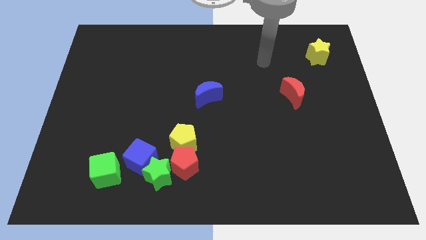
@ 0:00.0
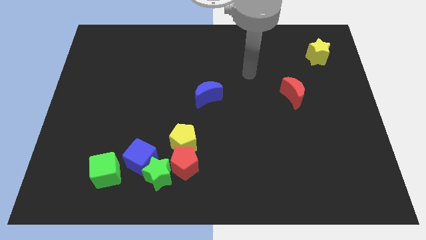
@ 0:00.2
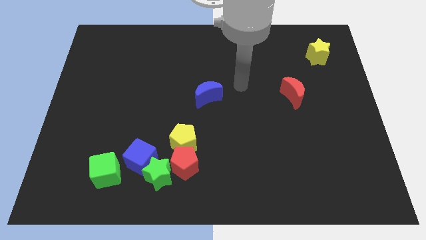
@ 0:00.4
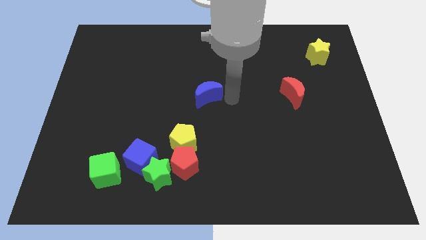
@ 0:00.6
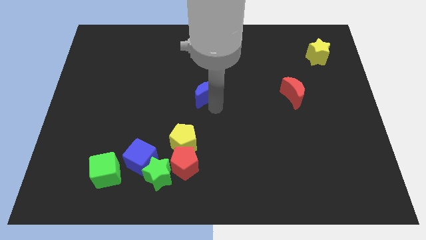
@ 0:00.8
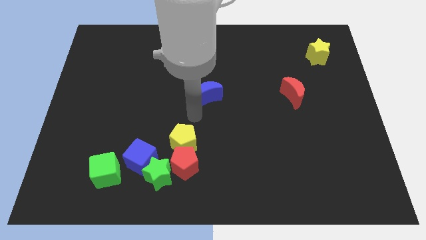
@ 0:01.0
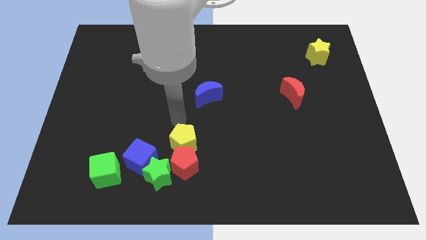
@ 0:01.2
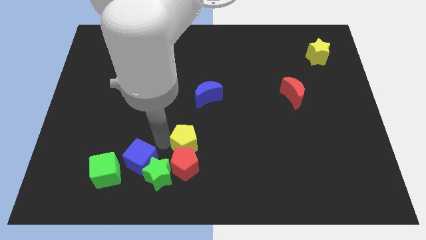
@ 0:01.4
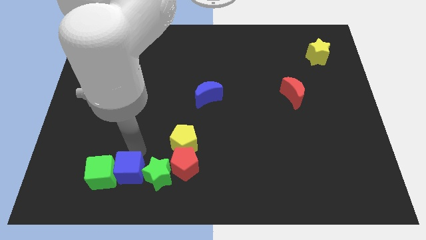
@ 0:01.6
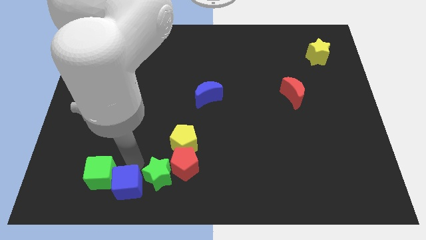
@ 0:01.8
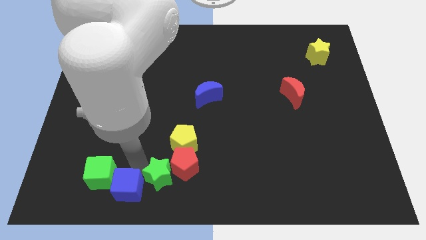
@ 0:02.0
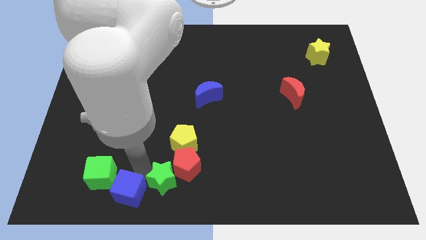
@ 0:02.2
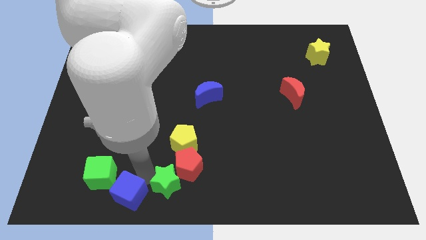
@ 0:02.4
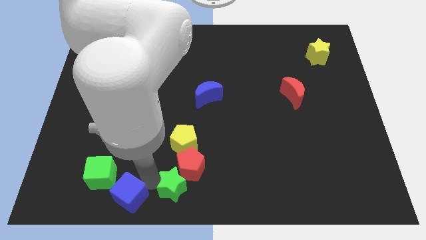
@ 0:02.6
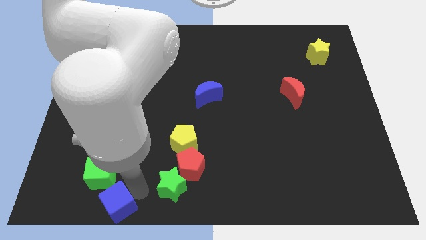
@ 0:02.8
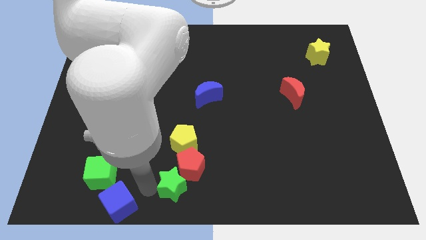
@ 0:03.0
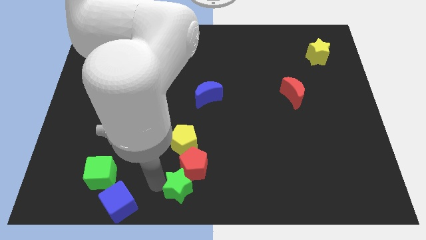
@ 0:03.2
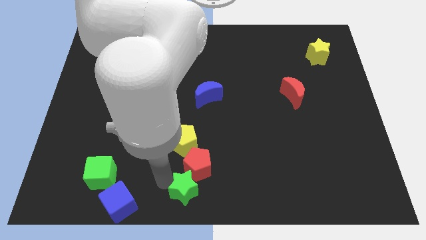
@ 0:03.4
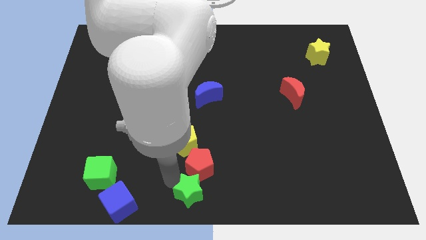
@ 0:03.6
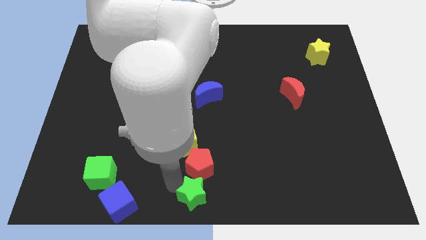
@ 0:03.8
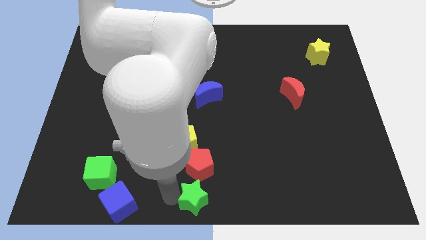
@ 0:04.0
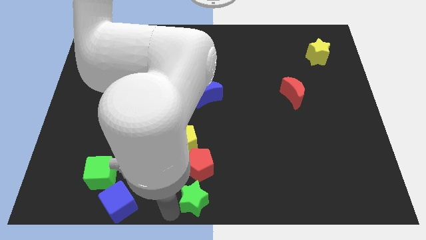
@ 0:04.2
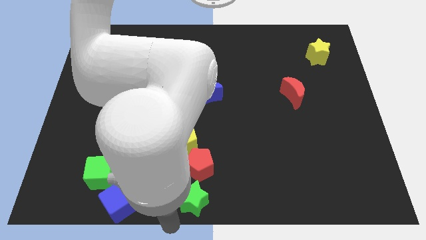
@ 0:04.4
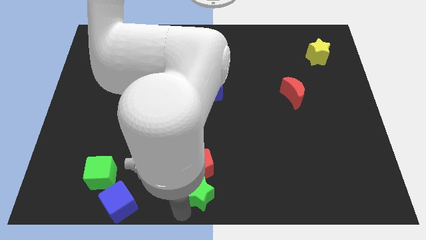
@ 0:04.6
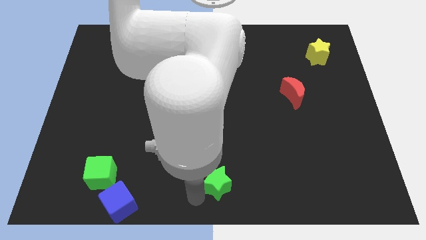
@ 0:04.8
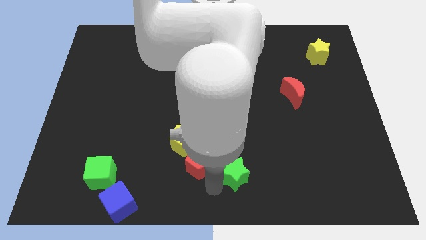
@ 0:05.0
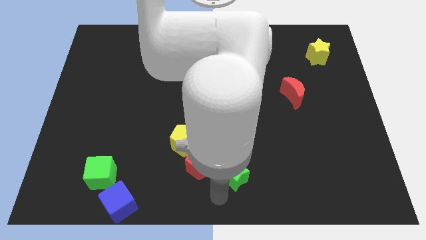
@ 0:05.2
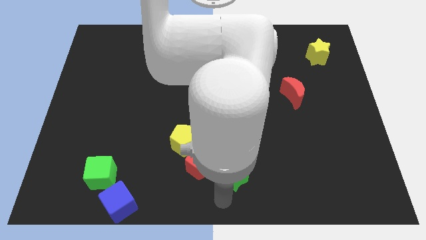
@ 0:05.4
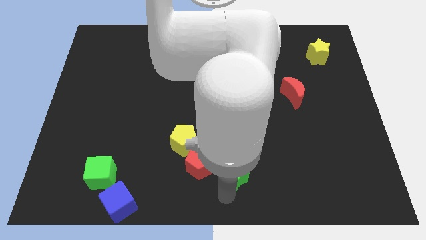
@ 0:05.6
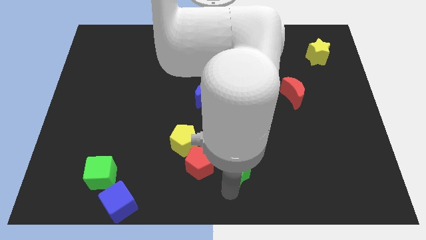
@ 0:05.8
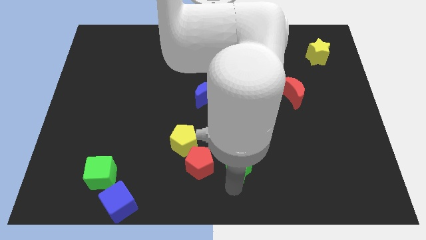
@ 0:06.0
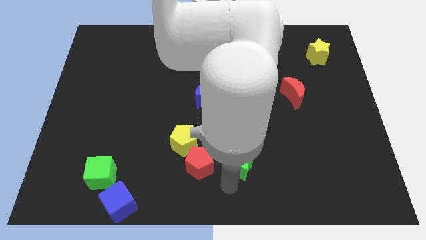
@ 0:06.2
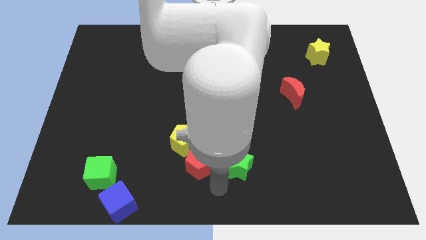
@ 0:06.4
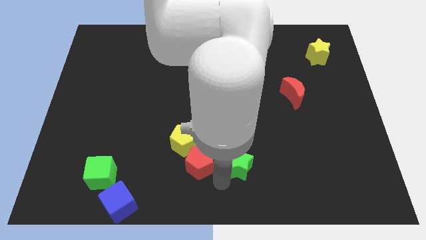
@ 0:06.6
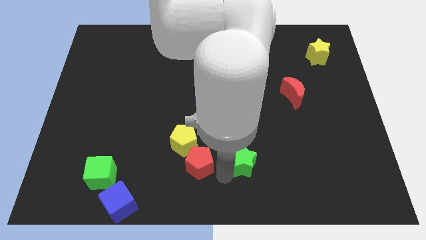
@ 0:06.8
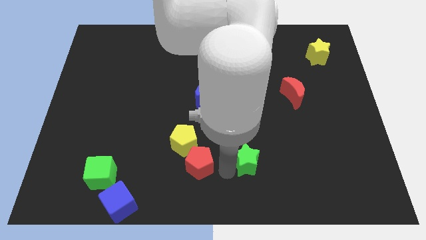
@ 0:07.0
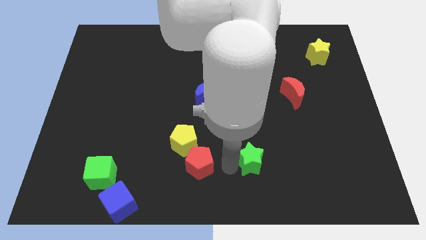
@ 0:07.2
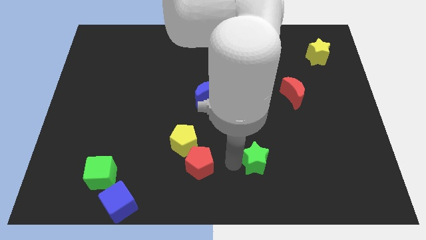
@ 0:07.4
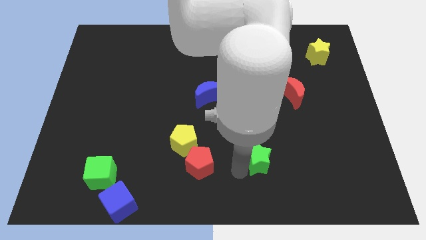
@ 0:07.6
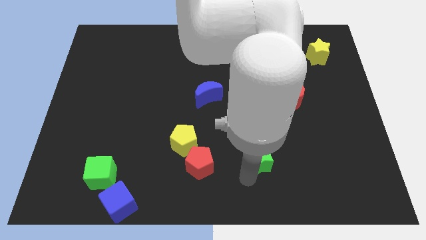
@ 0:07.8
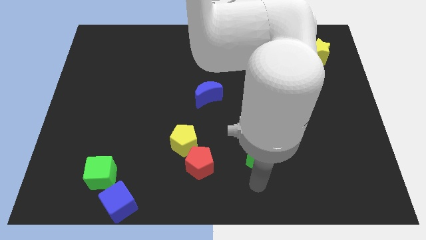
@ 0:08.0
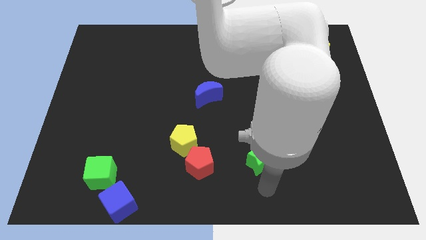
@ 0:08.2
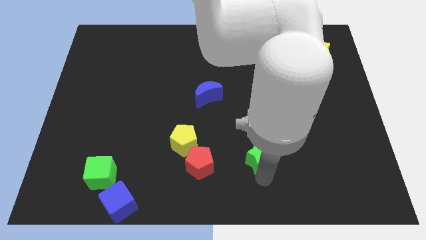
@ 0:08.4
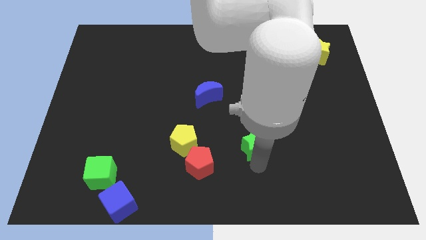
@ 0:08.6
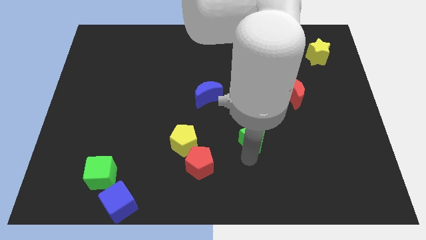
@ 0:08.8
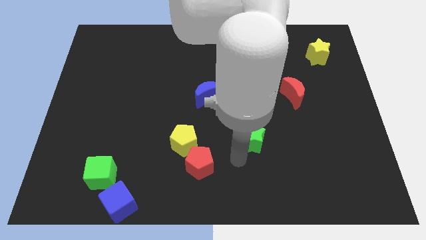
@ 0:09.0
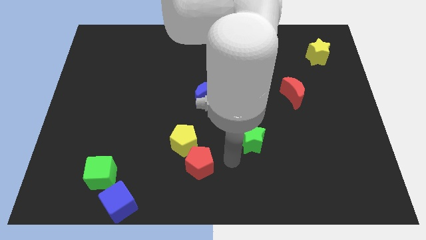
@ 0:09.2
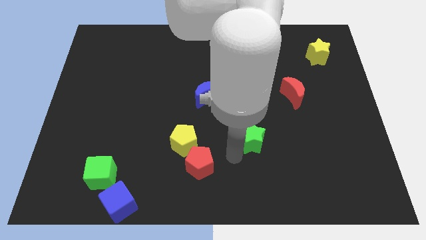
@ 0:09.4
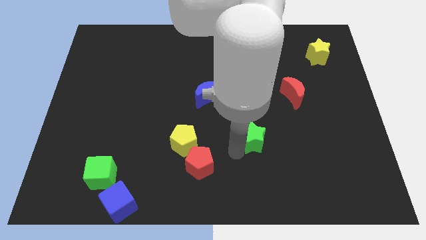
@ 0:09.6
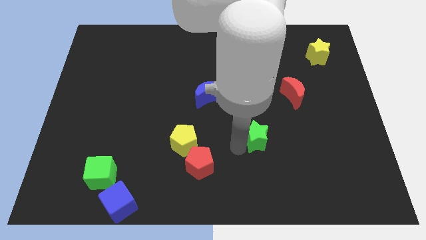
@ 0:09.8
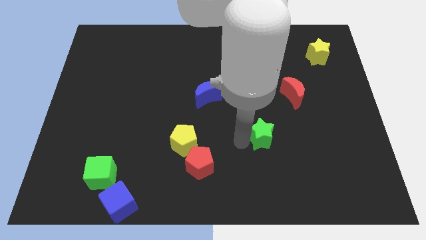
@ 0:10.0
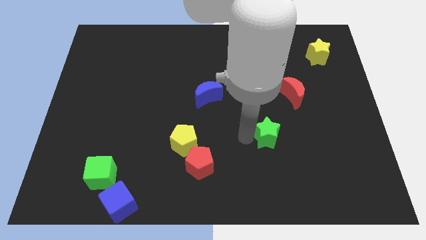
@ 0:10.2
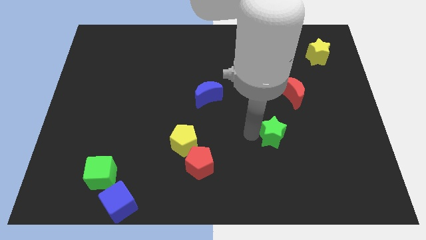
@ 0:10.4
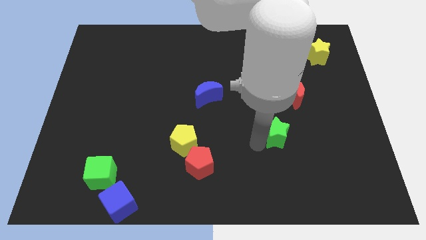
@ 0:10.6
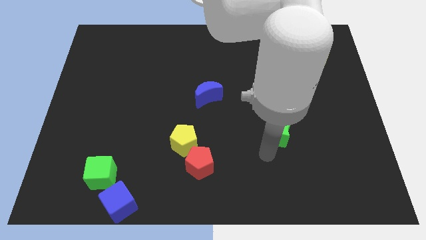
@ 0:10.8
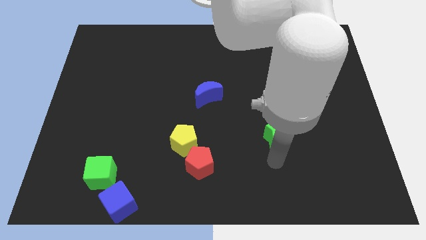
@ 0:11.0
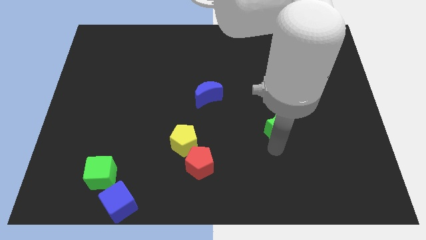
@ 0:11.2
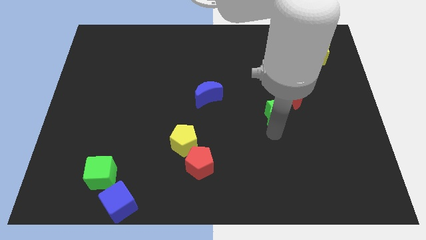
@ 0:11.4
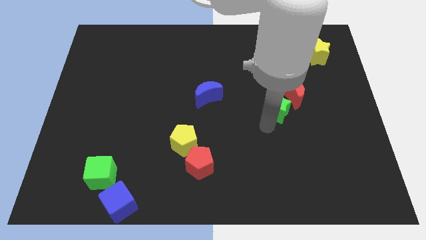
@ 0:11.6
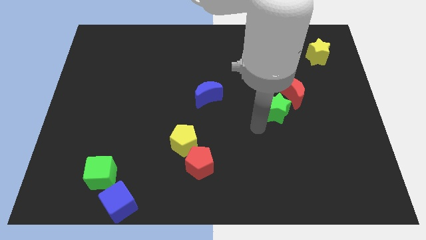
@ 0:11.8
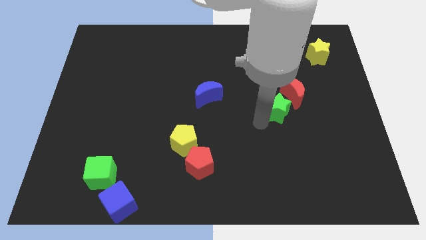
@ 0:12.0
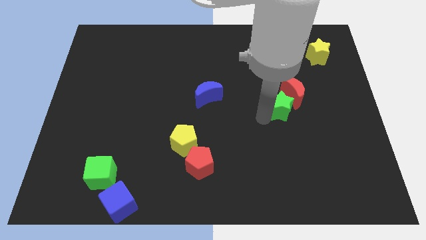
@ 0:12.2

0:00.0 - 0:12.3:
push the green star next to the red moon

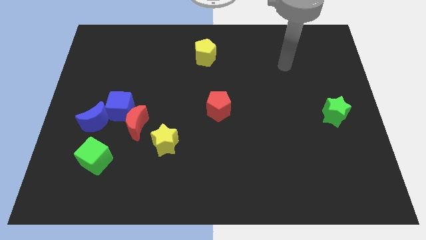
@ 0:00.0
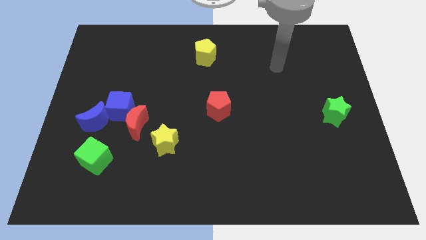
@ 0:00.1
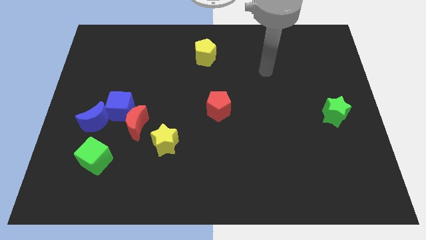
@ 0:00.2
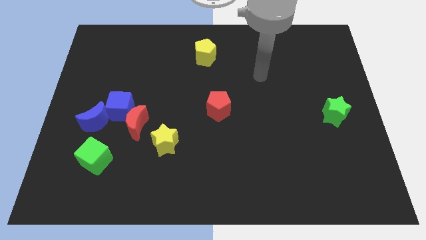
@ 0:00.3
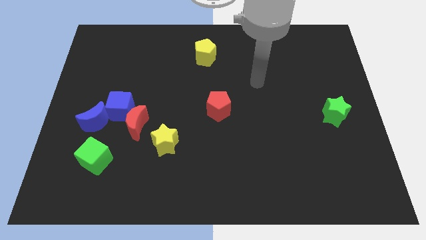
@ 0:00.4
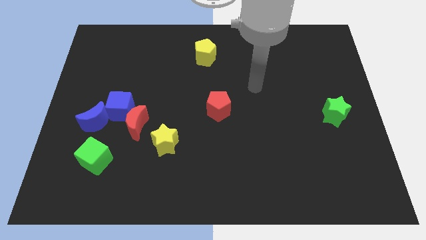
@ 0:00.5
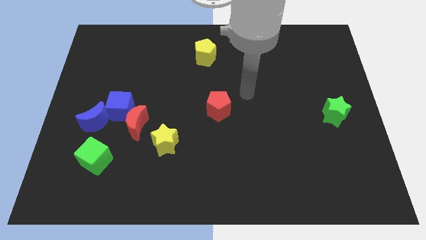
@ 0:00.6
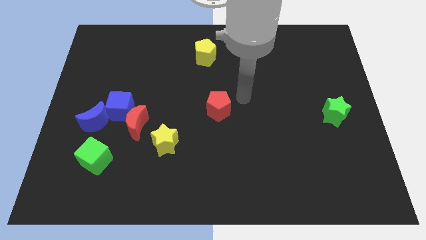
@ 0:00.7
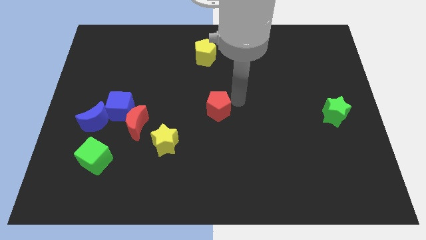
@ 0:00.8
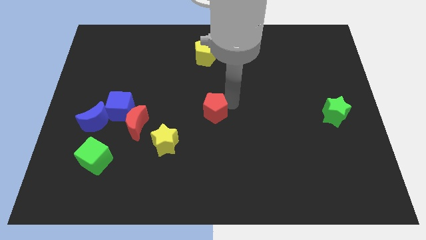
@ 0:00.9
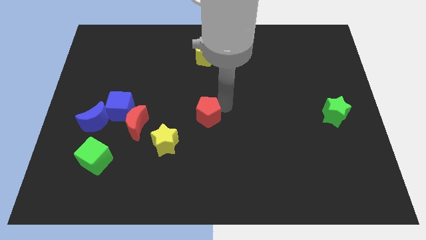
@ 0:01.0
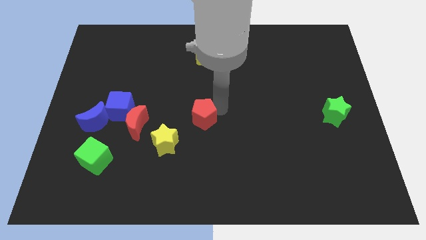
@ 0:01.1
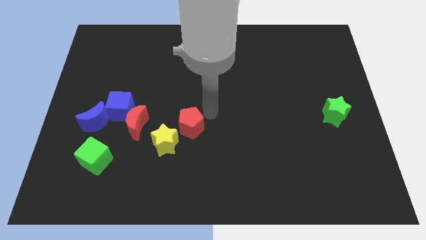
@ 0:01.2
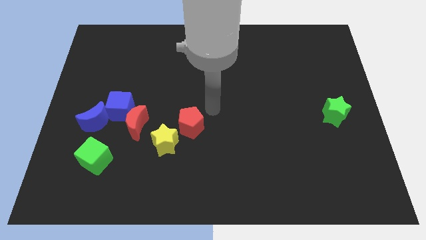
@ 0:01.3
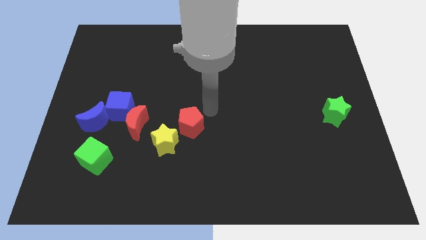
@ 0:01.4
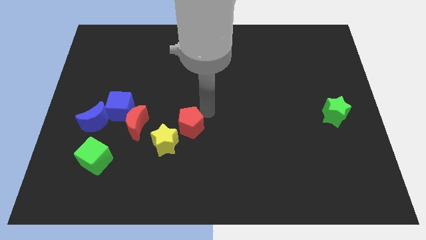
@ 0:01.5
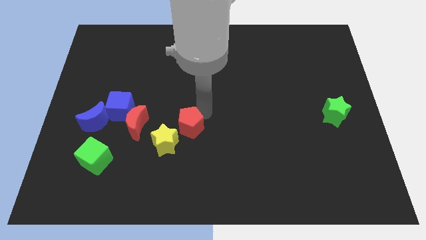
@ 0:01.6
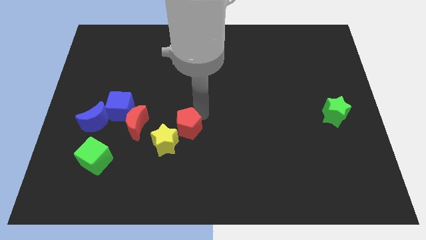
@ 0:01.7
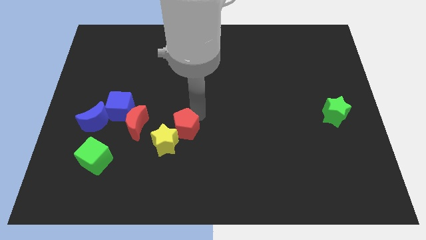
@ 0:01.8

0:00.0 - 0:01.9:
put the red pentagon close to the yellow star
